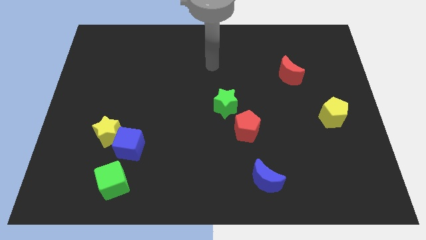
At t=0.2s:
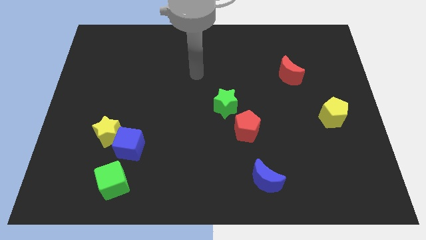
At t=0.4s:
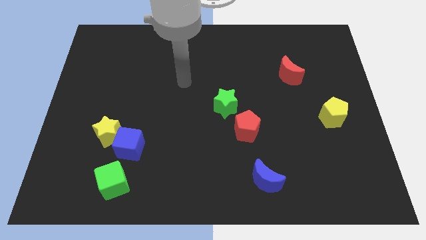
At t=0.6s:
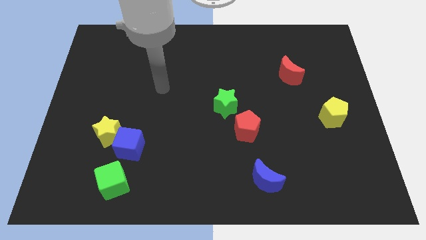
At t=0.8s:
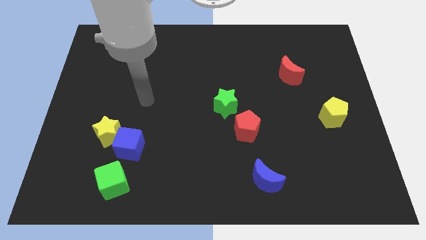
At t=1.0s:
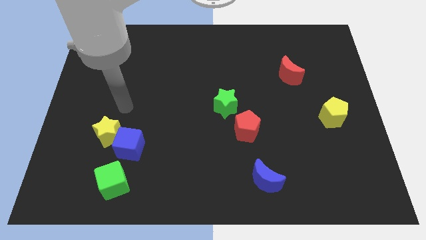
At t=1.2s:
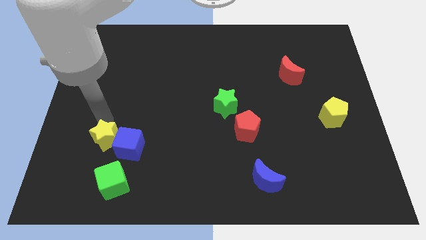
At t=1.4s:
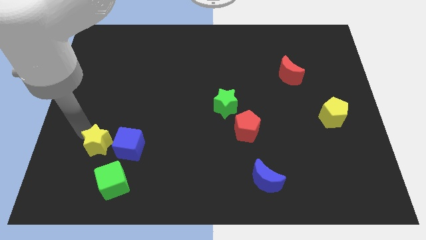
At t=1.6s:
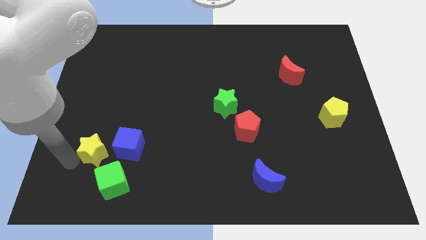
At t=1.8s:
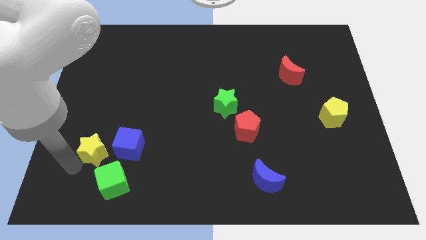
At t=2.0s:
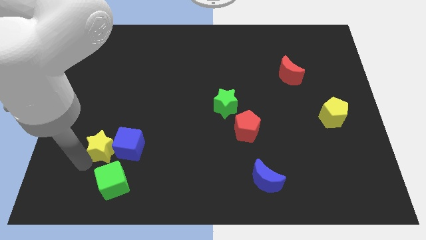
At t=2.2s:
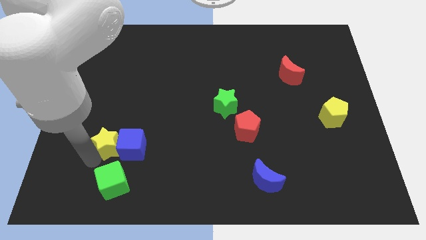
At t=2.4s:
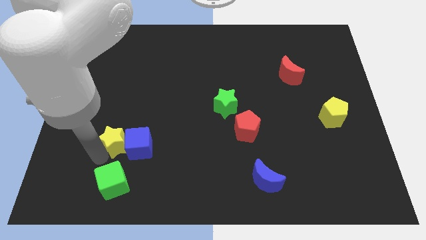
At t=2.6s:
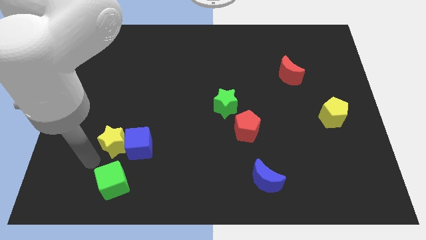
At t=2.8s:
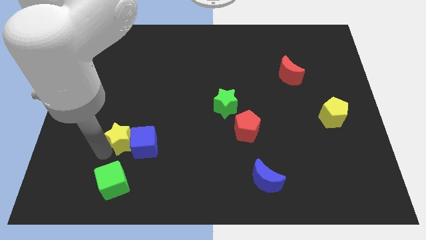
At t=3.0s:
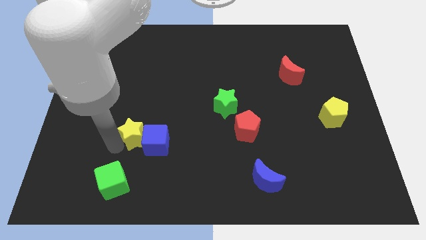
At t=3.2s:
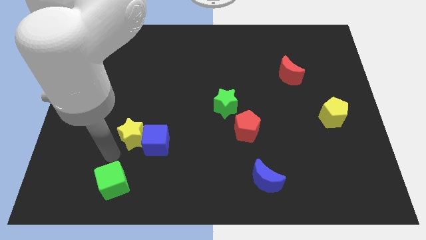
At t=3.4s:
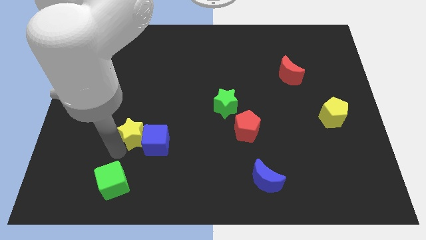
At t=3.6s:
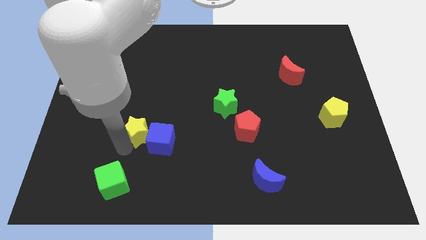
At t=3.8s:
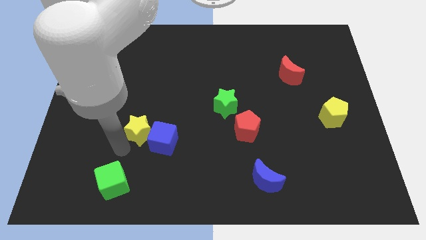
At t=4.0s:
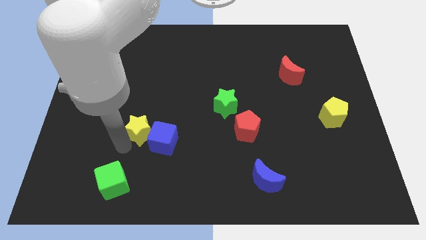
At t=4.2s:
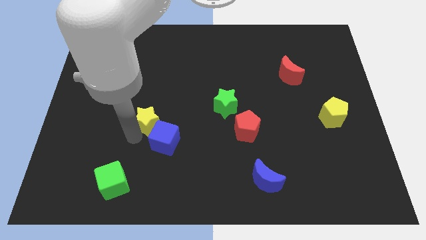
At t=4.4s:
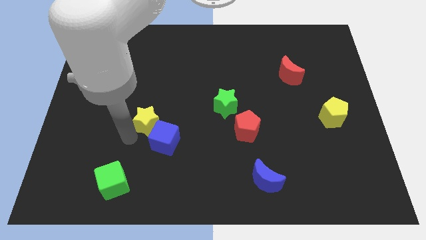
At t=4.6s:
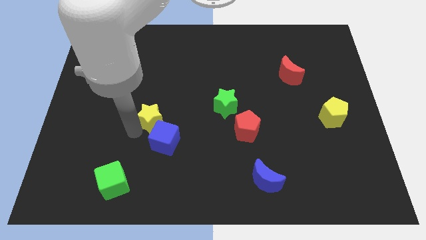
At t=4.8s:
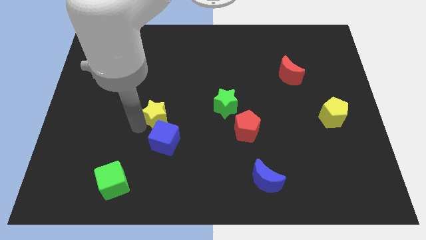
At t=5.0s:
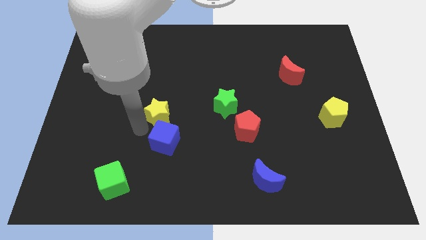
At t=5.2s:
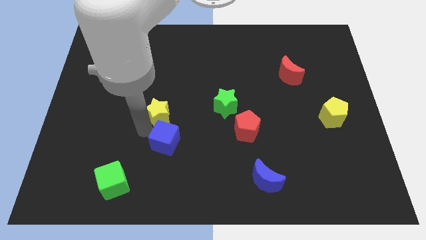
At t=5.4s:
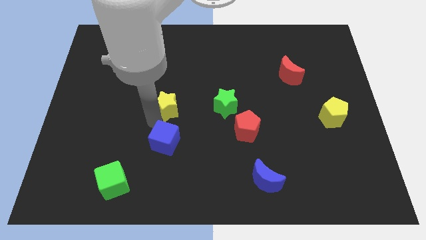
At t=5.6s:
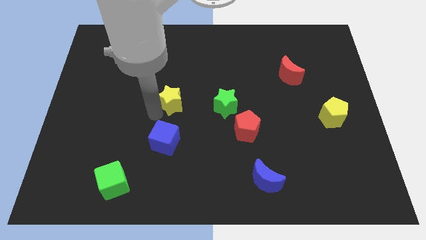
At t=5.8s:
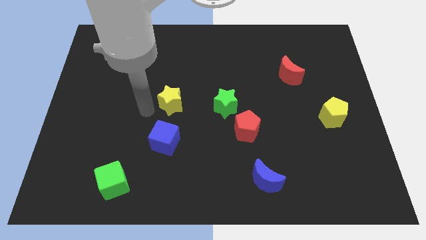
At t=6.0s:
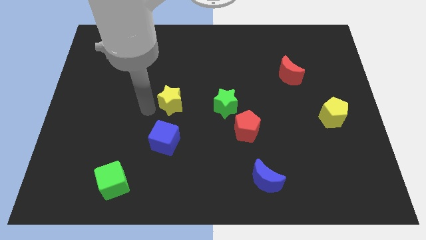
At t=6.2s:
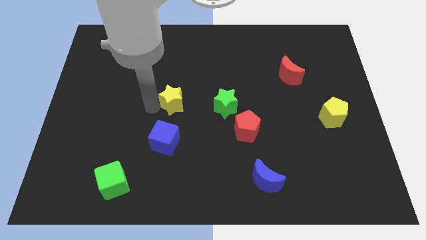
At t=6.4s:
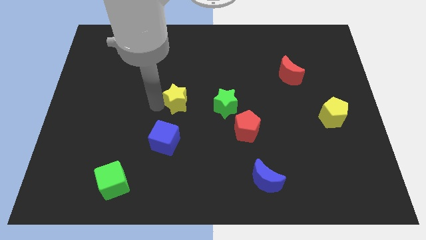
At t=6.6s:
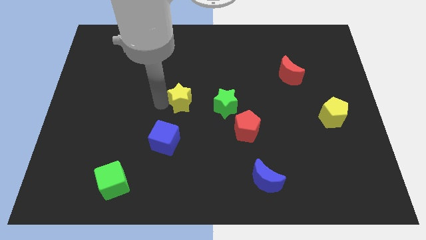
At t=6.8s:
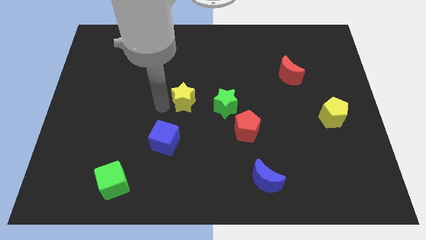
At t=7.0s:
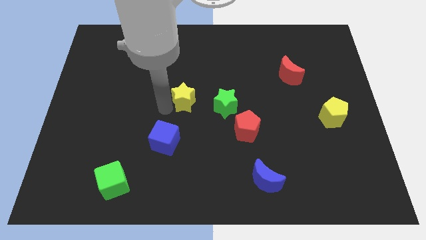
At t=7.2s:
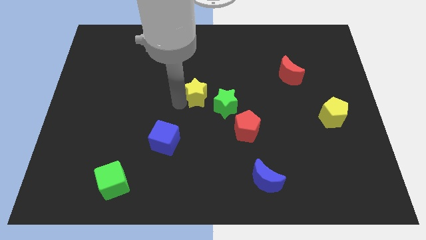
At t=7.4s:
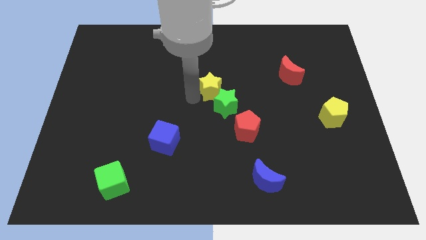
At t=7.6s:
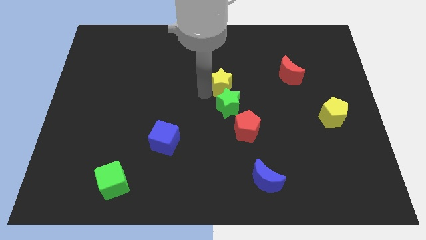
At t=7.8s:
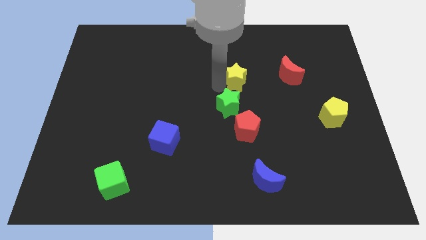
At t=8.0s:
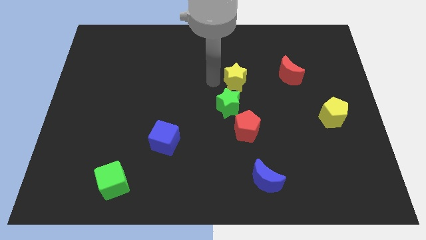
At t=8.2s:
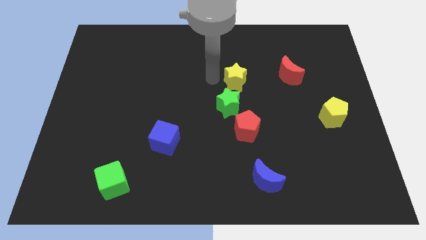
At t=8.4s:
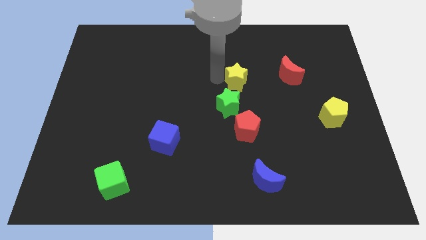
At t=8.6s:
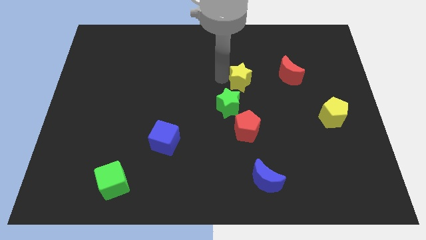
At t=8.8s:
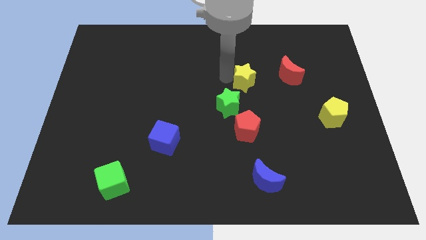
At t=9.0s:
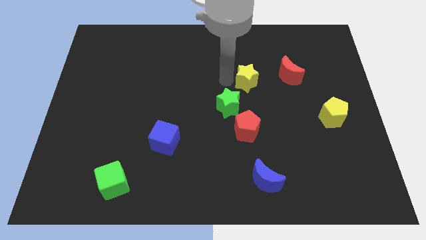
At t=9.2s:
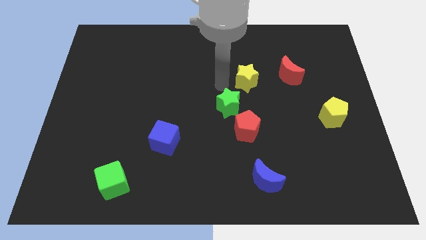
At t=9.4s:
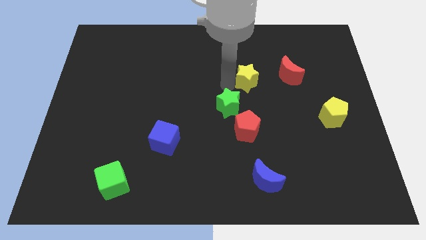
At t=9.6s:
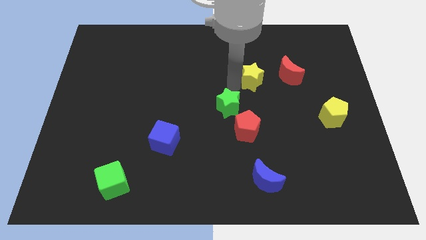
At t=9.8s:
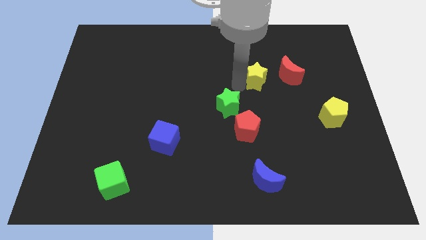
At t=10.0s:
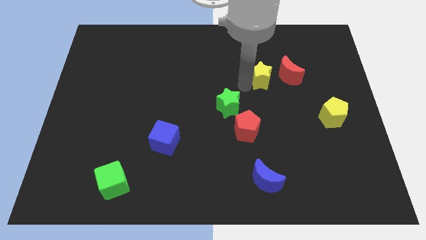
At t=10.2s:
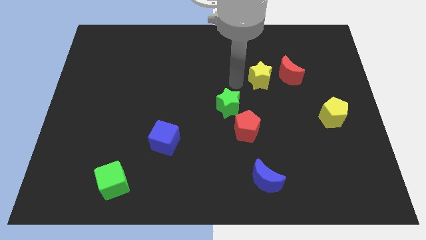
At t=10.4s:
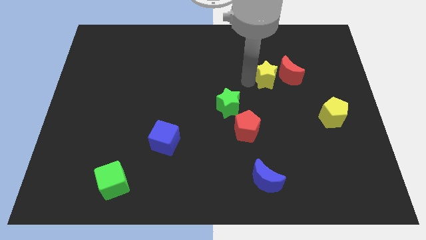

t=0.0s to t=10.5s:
push the yellow star close to the red moon

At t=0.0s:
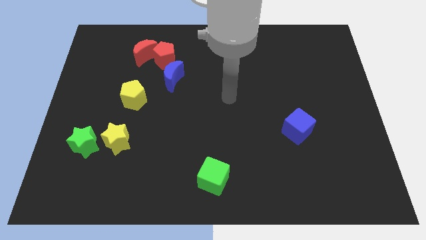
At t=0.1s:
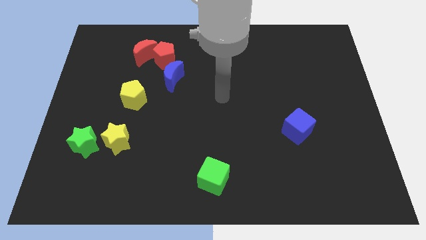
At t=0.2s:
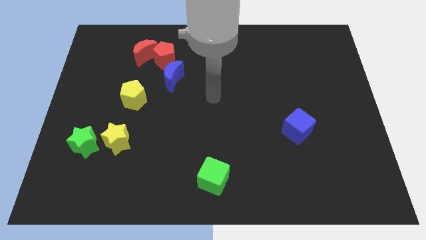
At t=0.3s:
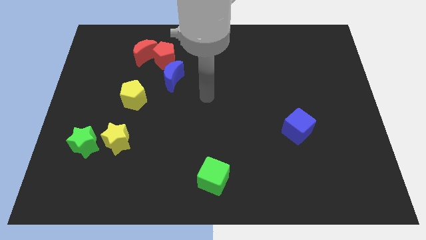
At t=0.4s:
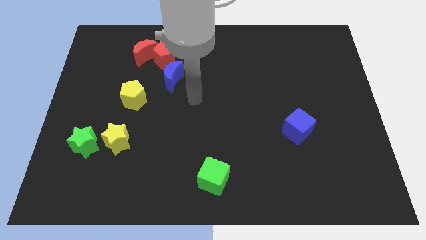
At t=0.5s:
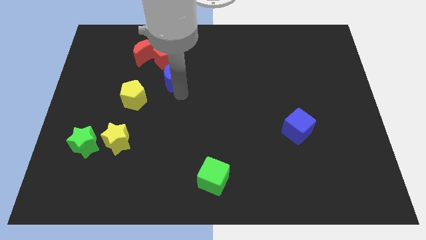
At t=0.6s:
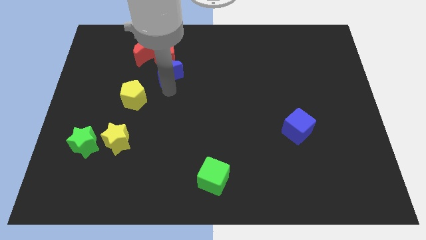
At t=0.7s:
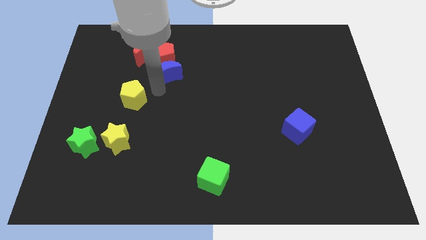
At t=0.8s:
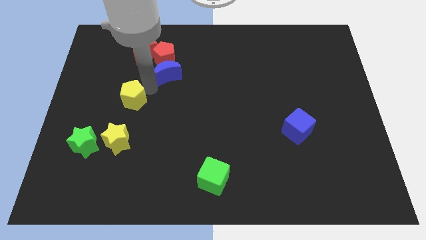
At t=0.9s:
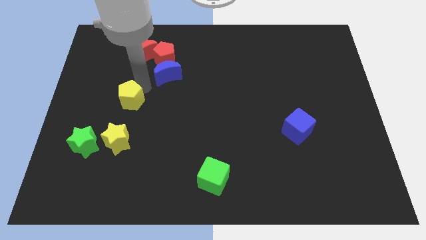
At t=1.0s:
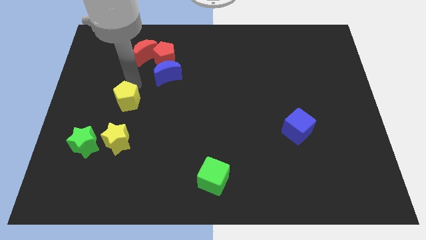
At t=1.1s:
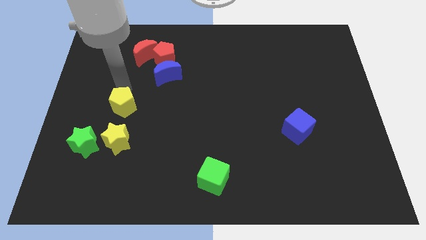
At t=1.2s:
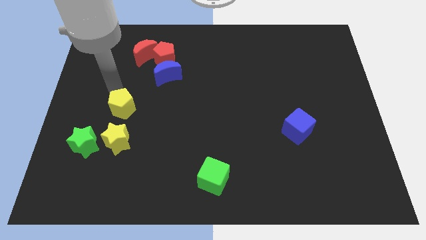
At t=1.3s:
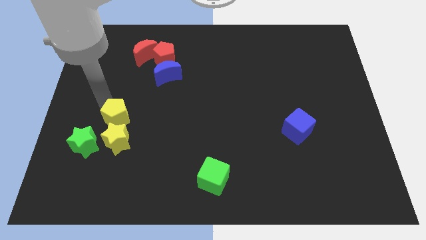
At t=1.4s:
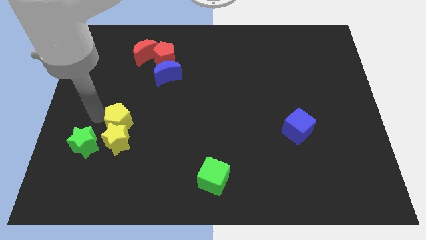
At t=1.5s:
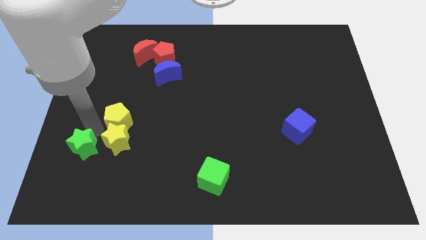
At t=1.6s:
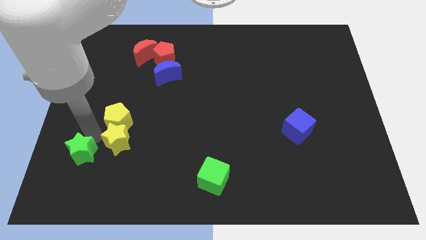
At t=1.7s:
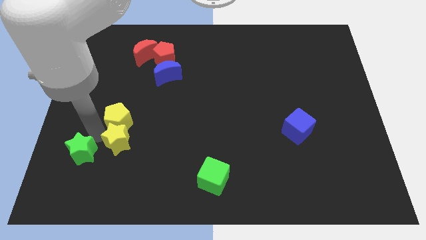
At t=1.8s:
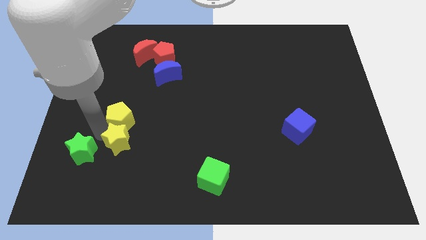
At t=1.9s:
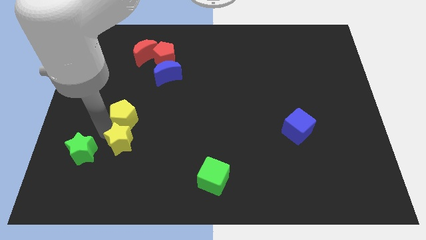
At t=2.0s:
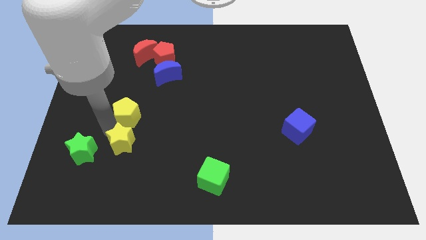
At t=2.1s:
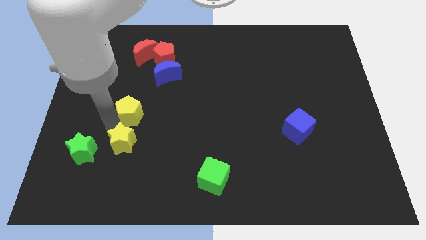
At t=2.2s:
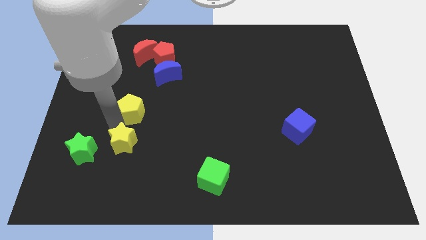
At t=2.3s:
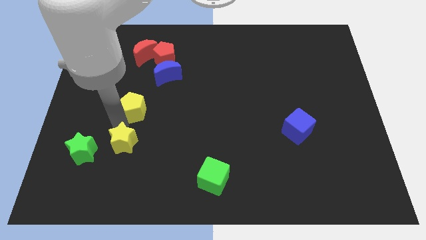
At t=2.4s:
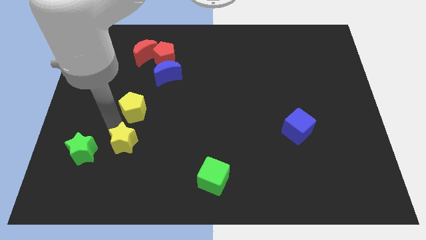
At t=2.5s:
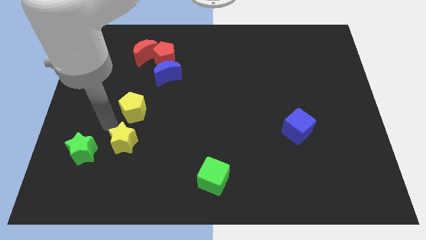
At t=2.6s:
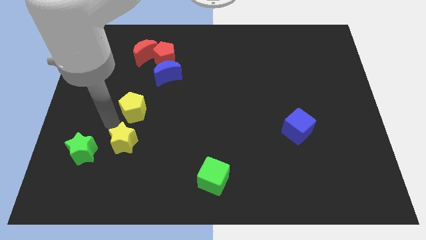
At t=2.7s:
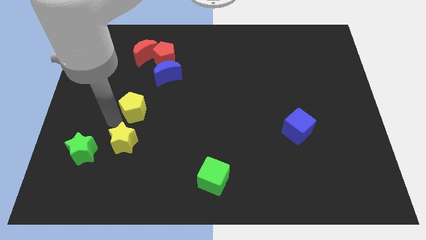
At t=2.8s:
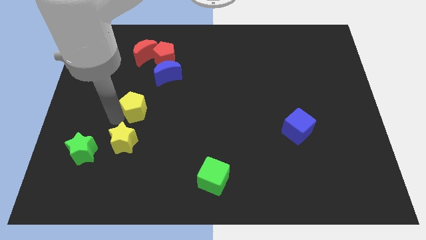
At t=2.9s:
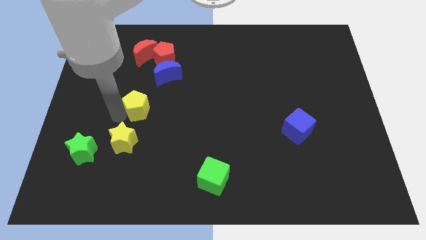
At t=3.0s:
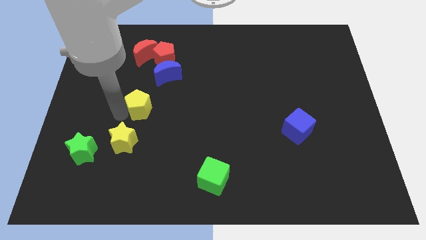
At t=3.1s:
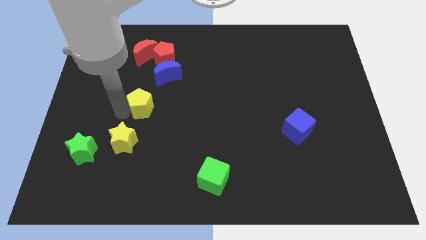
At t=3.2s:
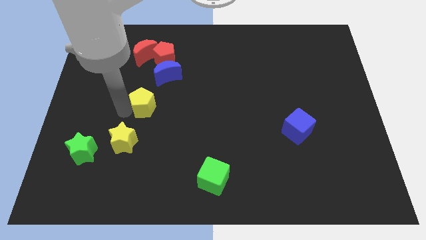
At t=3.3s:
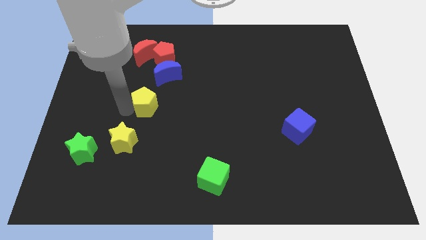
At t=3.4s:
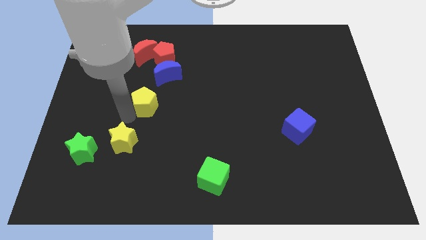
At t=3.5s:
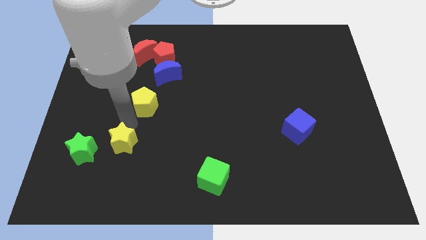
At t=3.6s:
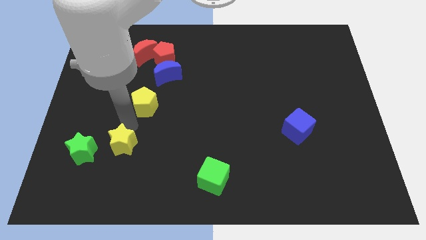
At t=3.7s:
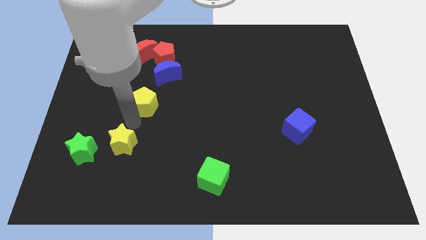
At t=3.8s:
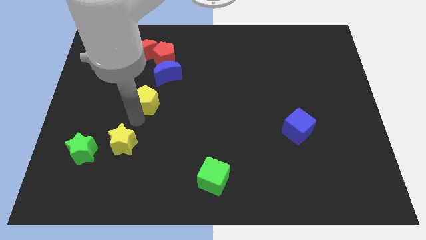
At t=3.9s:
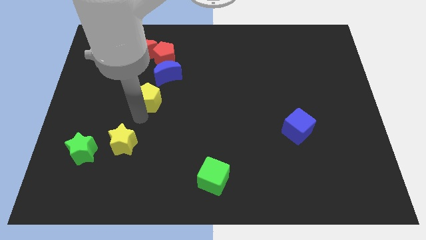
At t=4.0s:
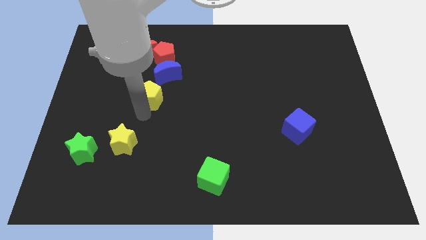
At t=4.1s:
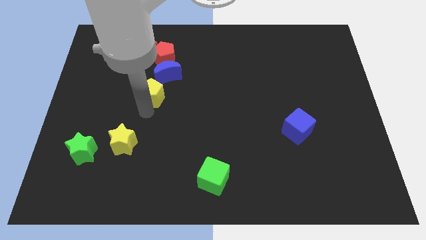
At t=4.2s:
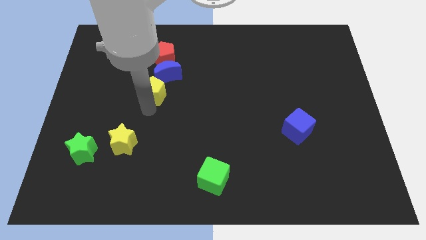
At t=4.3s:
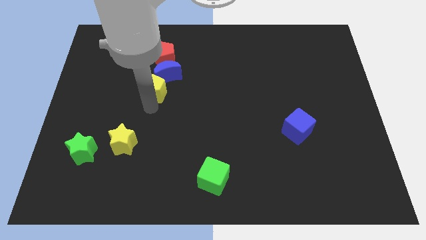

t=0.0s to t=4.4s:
push the yellow pentagon next to the blue moon
